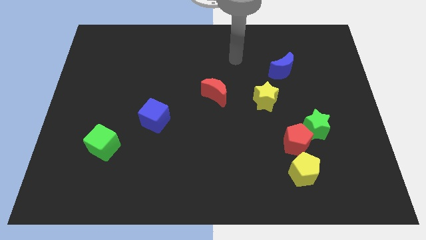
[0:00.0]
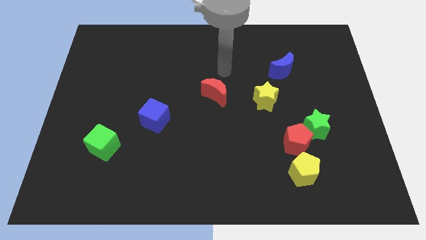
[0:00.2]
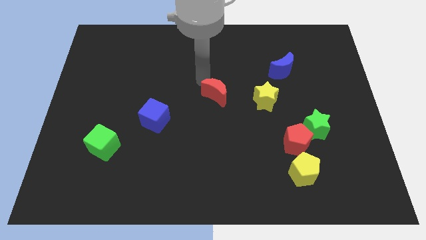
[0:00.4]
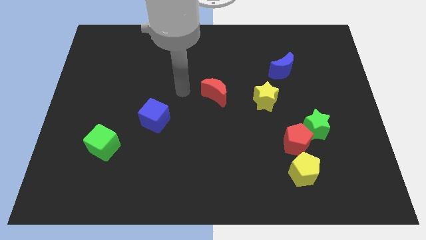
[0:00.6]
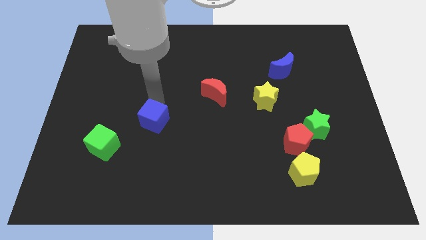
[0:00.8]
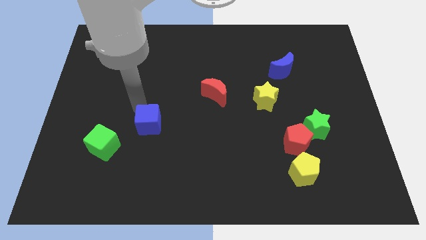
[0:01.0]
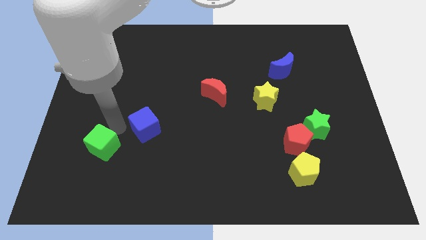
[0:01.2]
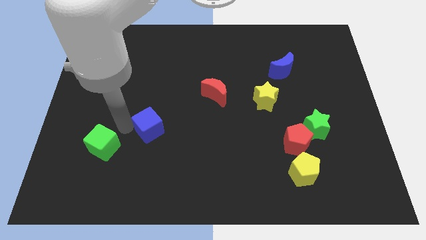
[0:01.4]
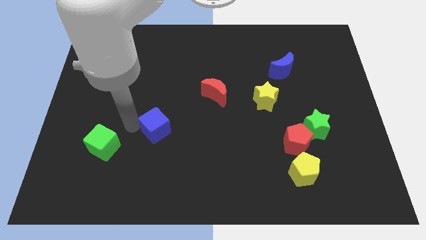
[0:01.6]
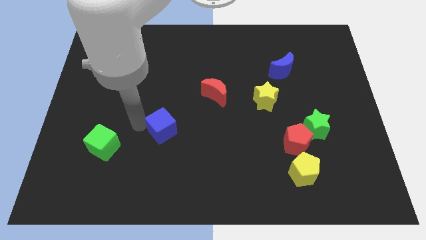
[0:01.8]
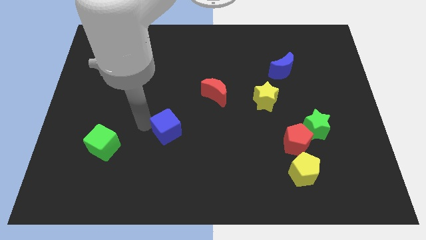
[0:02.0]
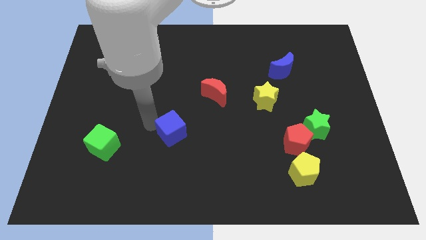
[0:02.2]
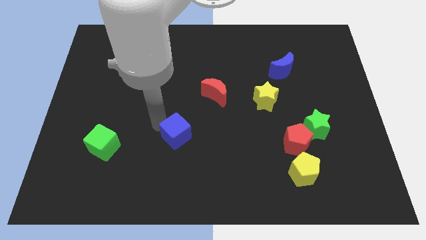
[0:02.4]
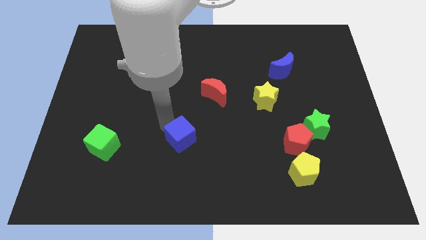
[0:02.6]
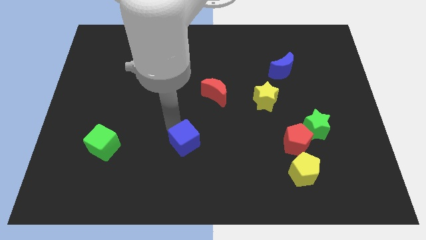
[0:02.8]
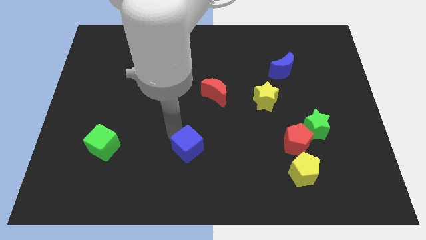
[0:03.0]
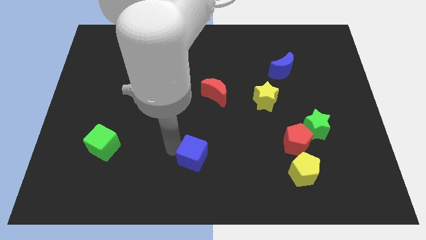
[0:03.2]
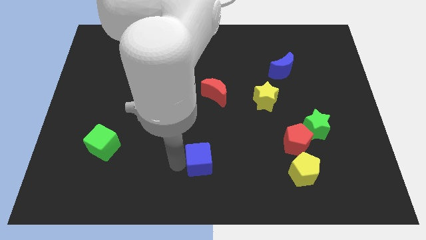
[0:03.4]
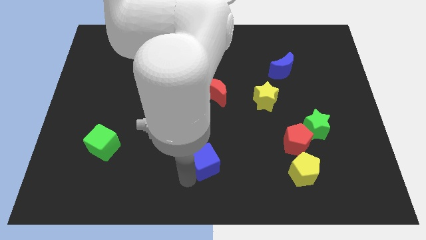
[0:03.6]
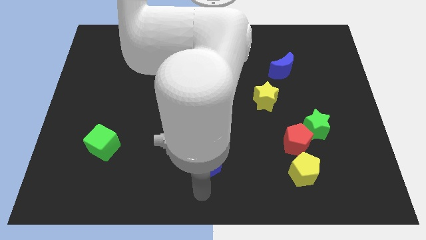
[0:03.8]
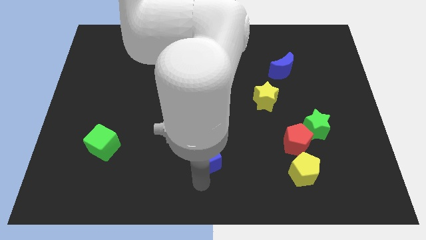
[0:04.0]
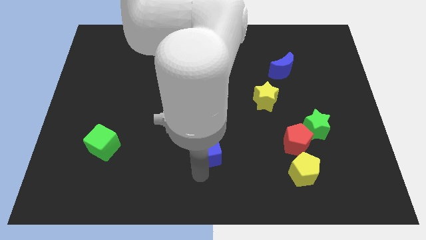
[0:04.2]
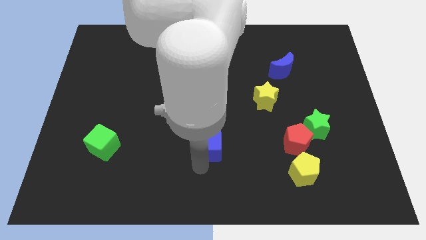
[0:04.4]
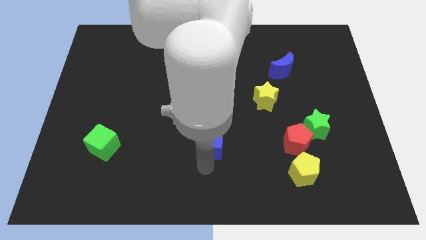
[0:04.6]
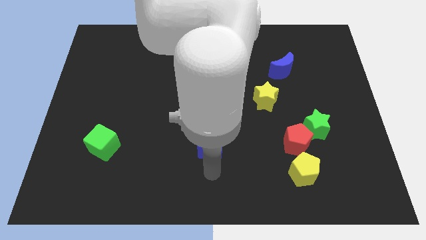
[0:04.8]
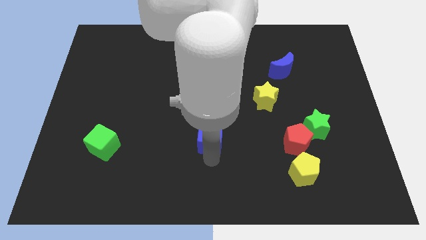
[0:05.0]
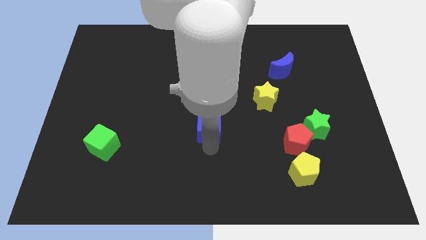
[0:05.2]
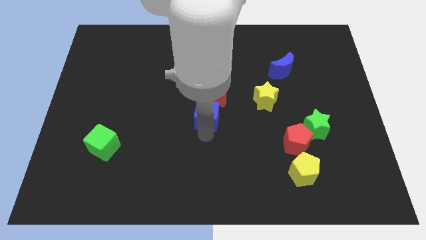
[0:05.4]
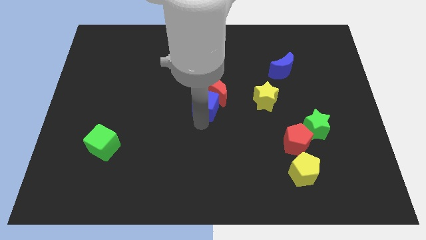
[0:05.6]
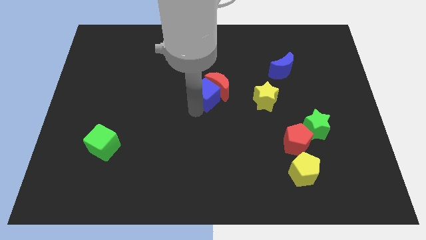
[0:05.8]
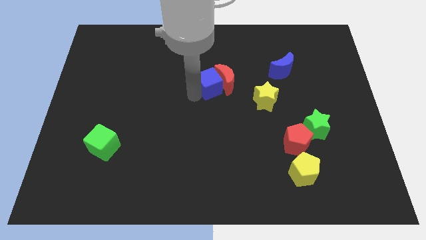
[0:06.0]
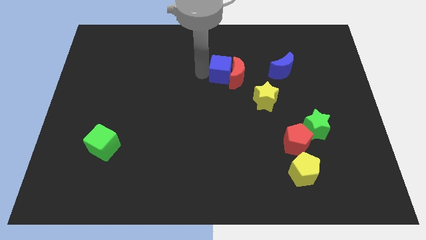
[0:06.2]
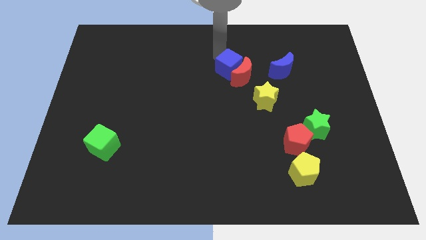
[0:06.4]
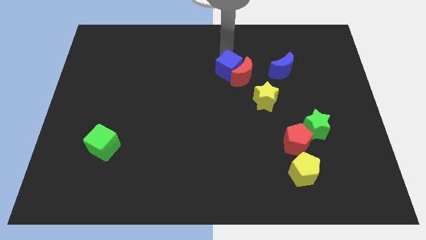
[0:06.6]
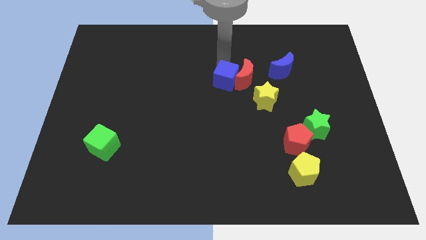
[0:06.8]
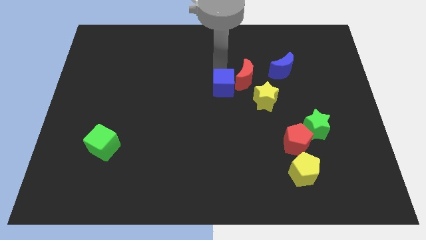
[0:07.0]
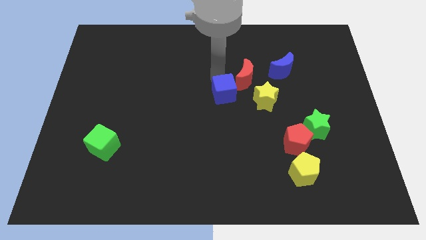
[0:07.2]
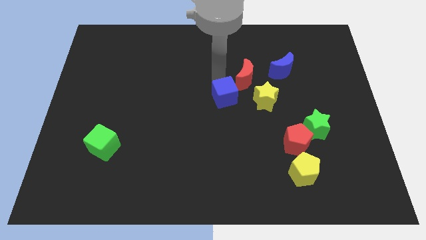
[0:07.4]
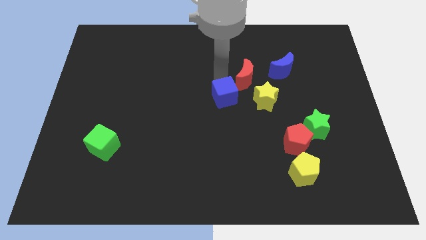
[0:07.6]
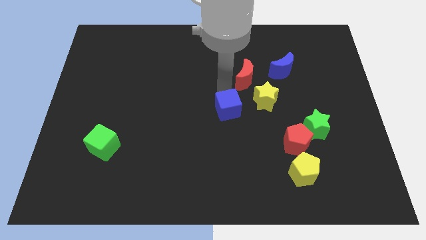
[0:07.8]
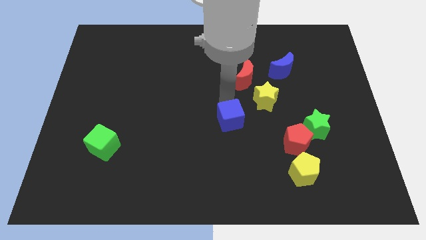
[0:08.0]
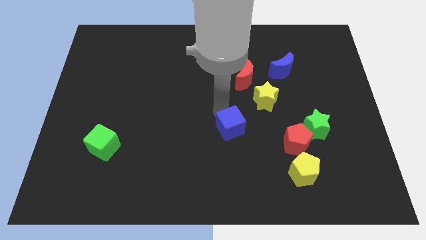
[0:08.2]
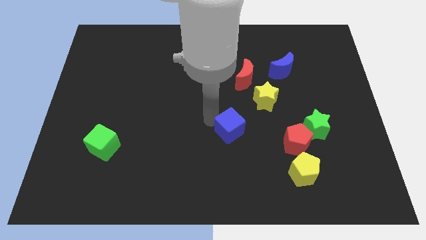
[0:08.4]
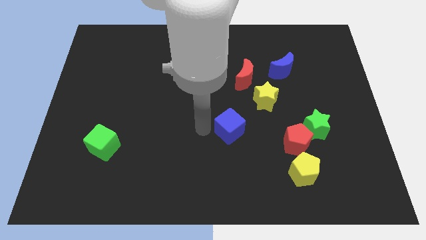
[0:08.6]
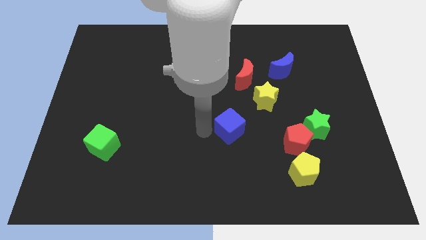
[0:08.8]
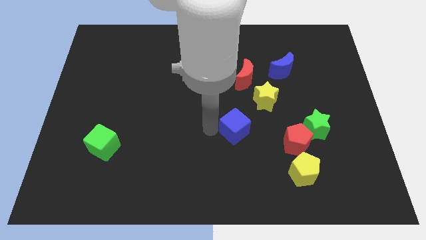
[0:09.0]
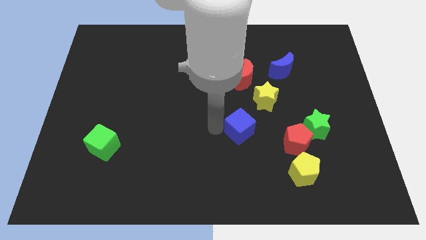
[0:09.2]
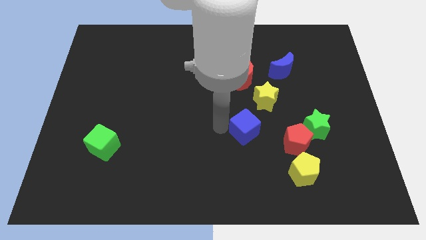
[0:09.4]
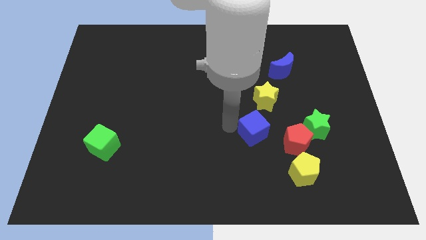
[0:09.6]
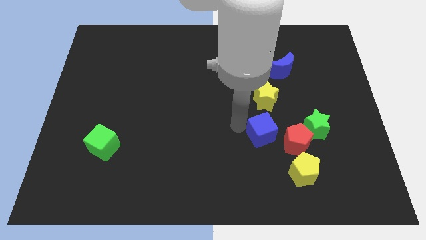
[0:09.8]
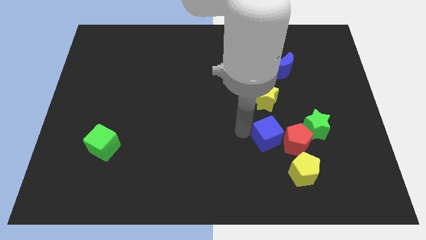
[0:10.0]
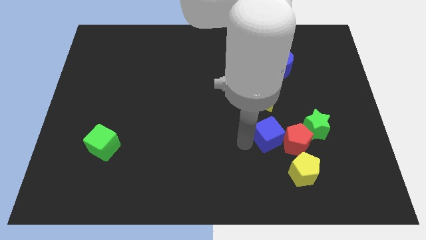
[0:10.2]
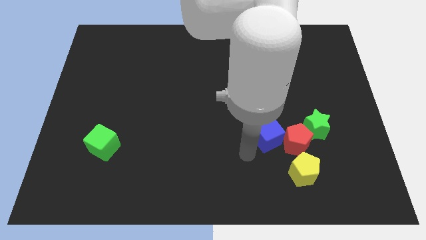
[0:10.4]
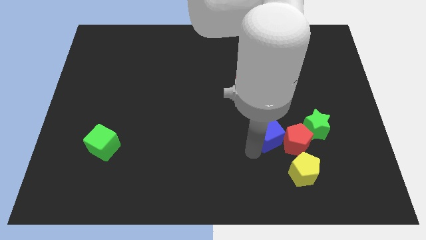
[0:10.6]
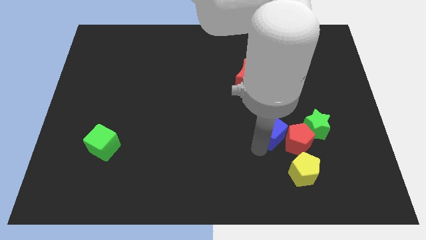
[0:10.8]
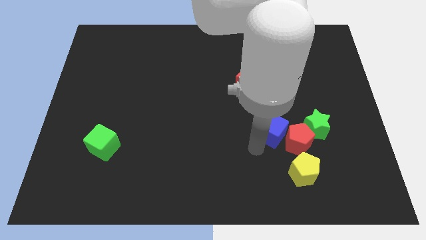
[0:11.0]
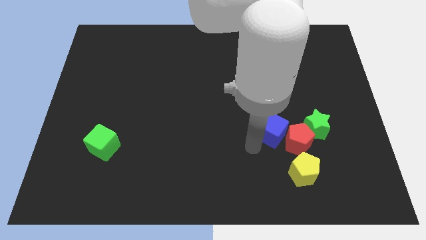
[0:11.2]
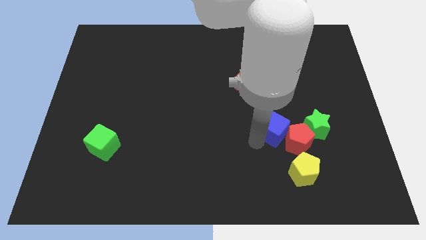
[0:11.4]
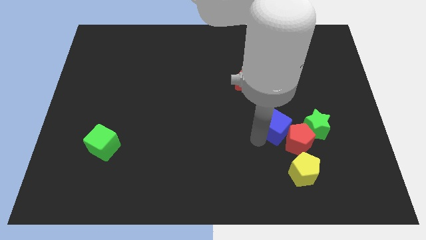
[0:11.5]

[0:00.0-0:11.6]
push the blue cube to the bottom right side of the yellow star

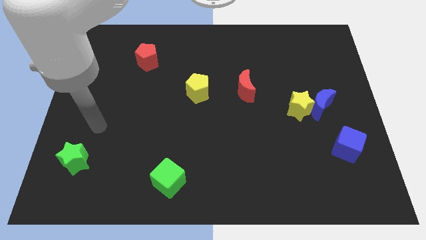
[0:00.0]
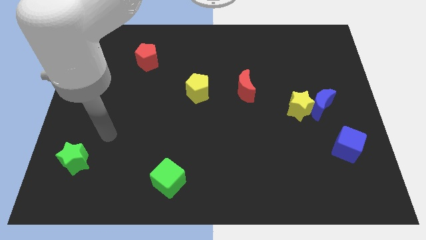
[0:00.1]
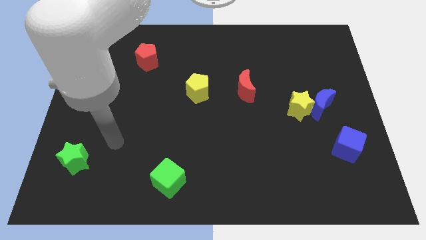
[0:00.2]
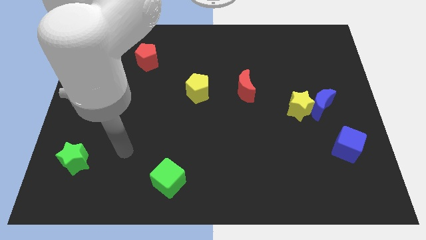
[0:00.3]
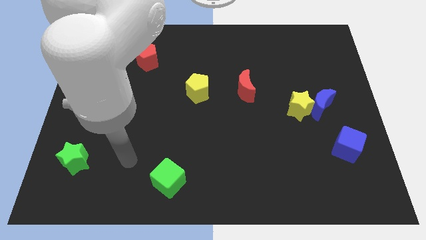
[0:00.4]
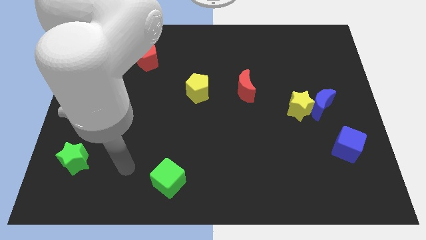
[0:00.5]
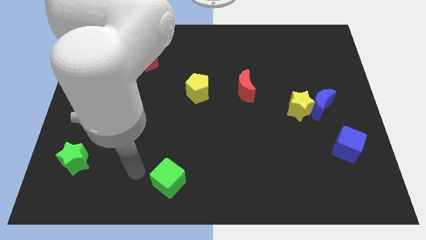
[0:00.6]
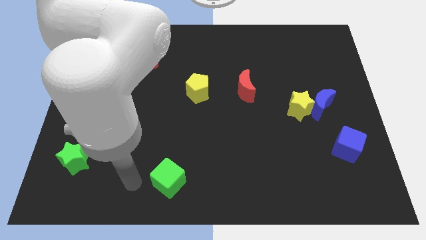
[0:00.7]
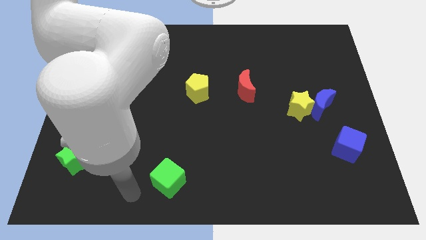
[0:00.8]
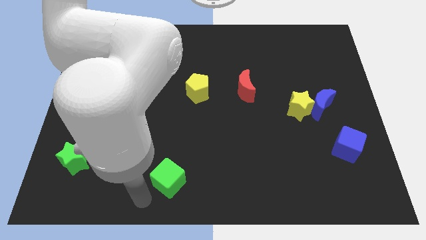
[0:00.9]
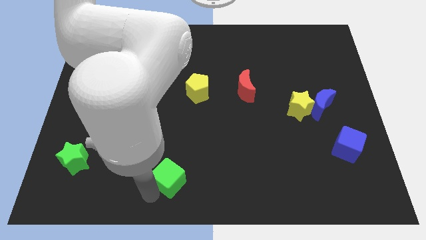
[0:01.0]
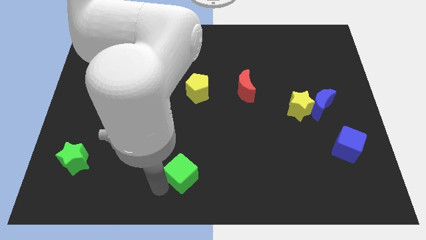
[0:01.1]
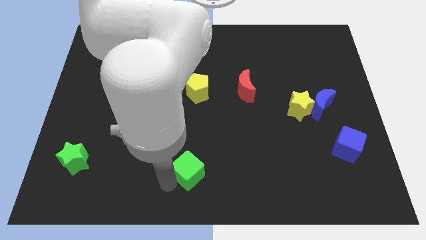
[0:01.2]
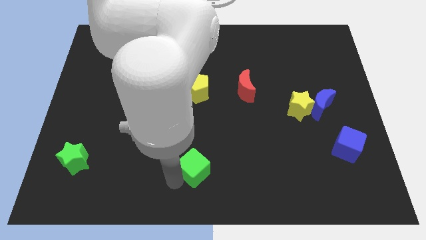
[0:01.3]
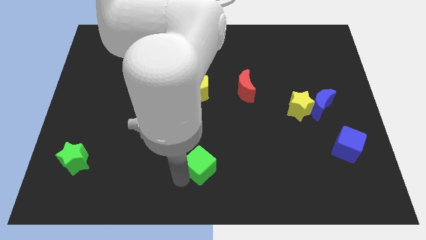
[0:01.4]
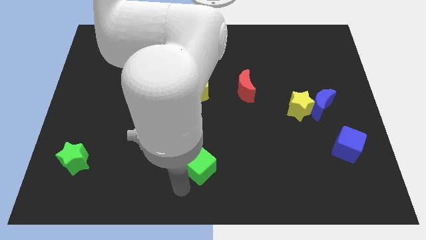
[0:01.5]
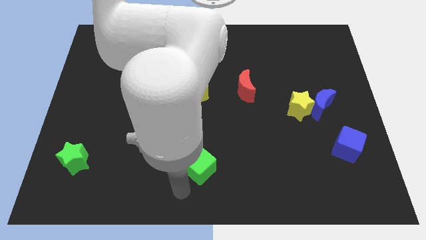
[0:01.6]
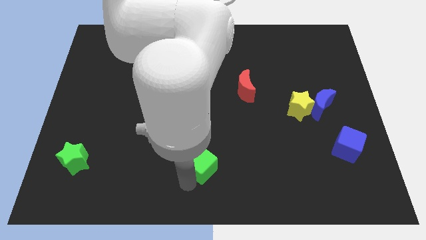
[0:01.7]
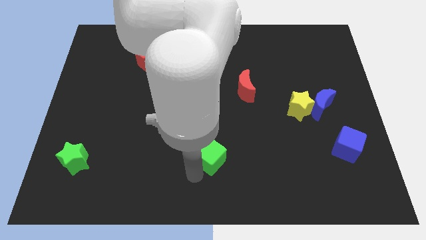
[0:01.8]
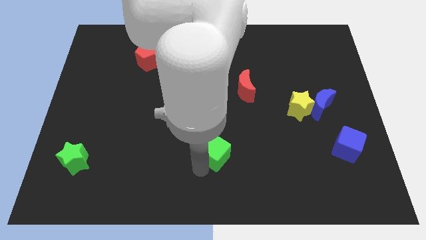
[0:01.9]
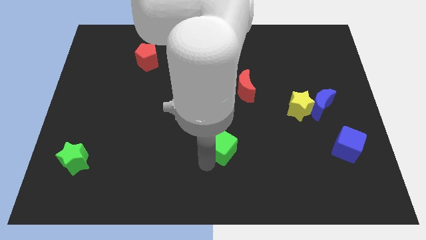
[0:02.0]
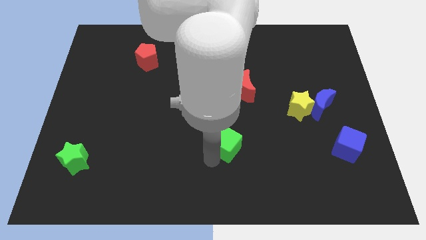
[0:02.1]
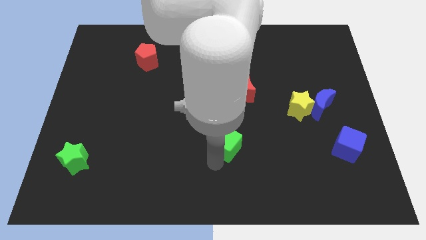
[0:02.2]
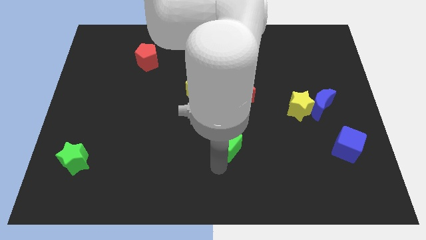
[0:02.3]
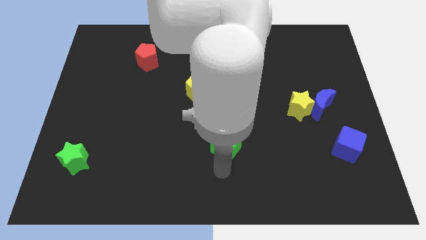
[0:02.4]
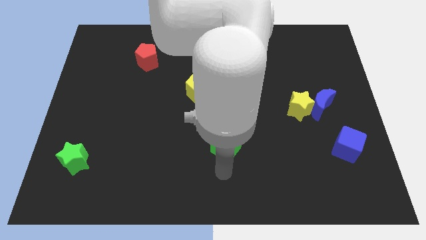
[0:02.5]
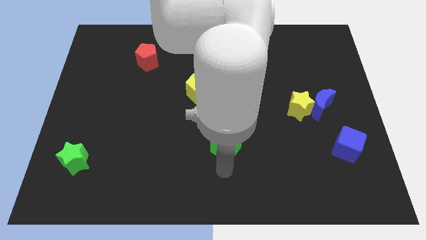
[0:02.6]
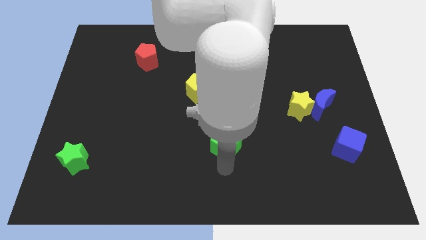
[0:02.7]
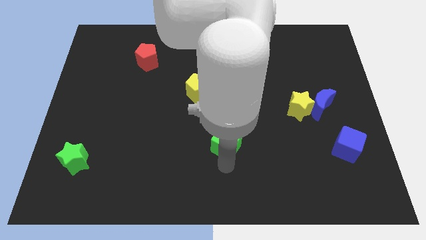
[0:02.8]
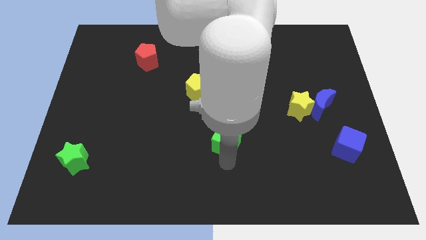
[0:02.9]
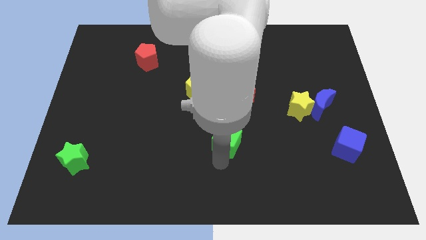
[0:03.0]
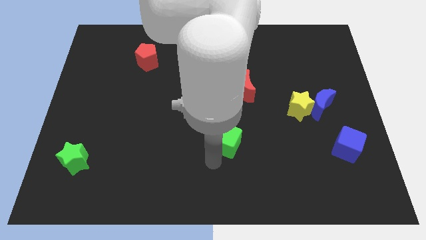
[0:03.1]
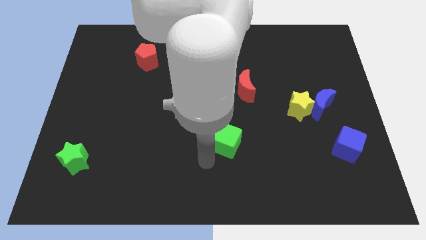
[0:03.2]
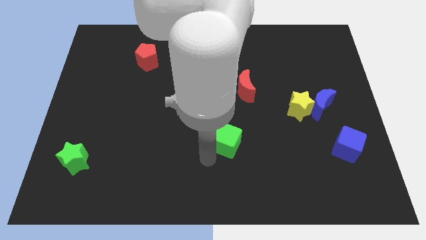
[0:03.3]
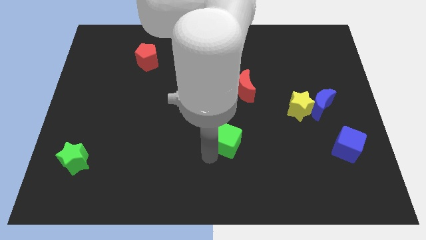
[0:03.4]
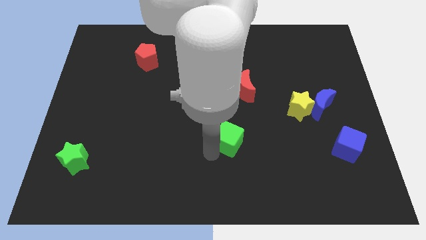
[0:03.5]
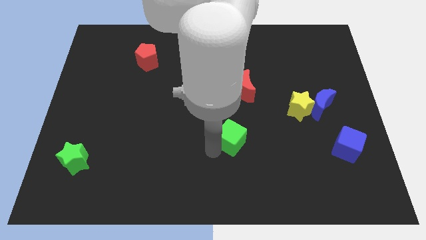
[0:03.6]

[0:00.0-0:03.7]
slide the green cube to the bottom side of the red moon
